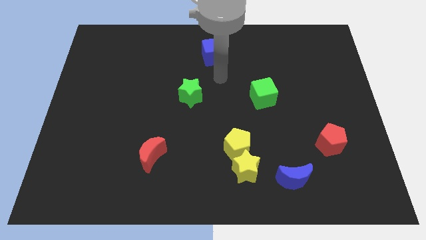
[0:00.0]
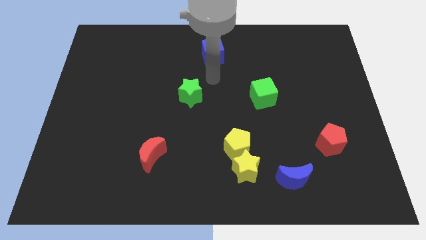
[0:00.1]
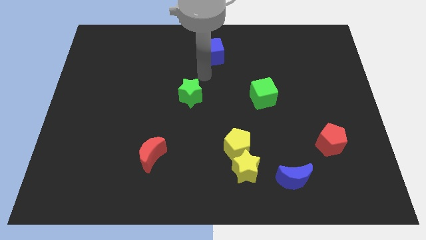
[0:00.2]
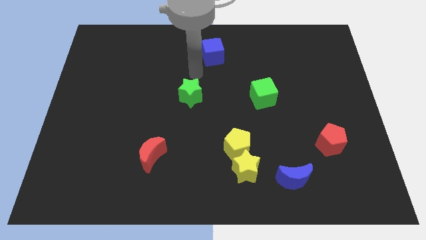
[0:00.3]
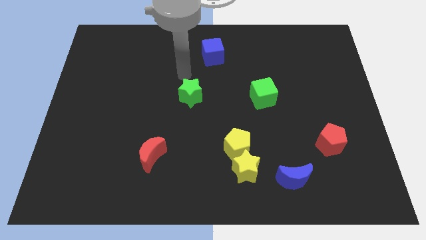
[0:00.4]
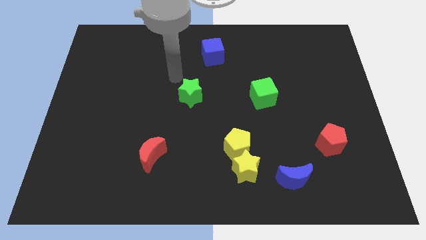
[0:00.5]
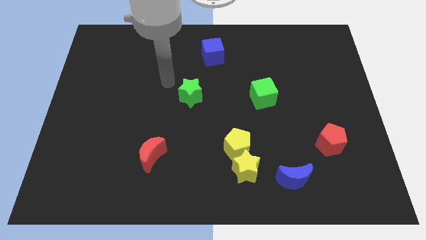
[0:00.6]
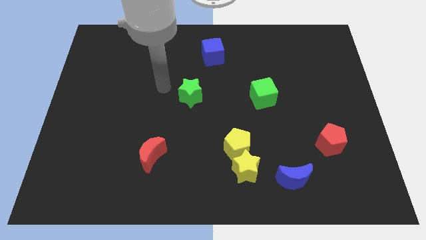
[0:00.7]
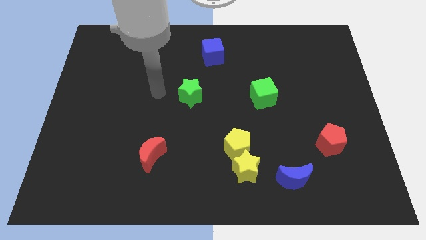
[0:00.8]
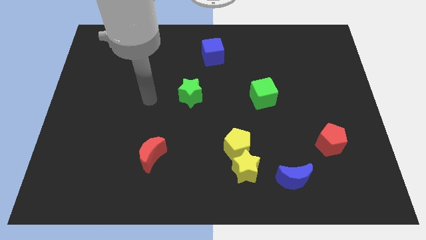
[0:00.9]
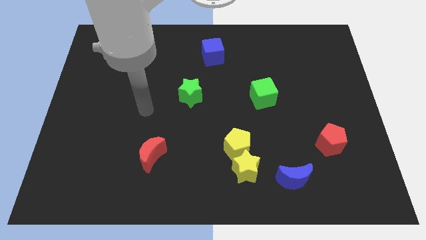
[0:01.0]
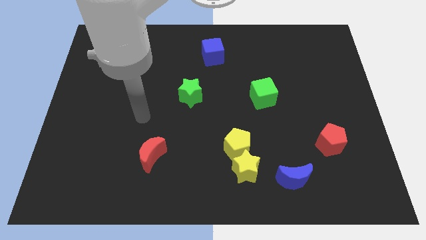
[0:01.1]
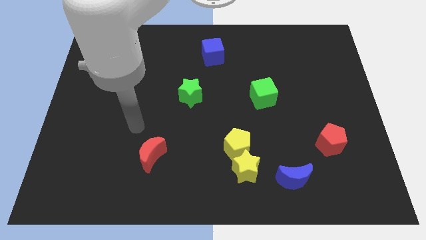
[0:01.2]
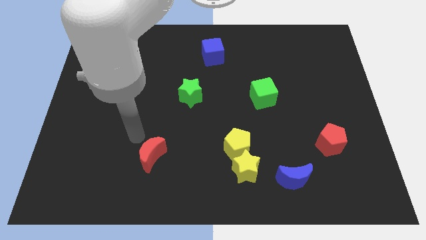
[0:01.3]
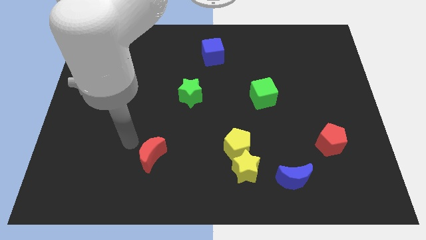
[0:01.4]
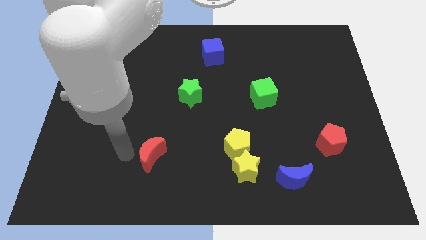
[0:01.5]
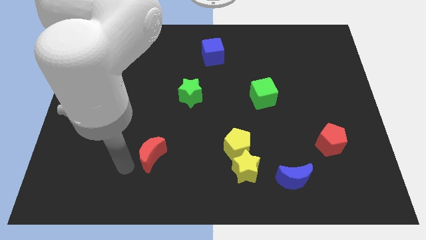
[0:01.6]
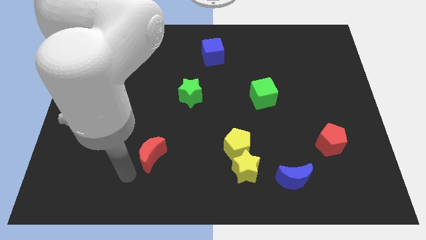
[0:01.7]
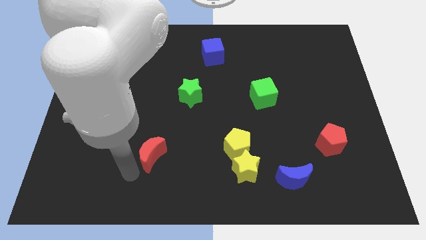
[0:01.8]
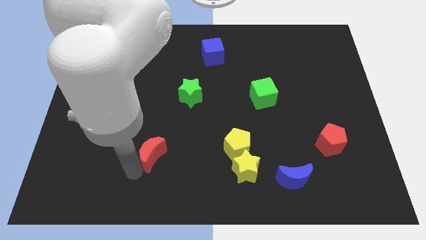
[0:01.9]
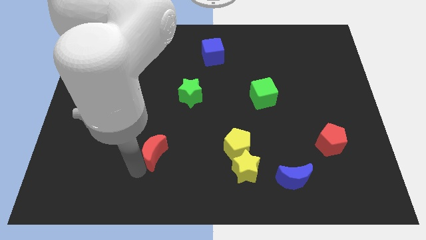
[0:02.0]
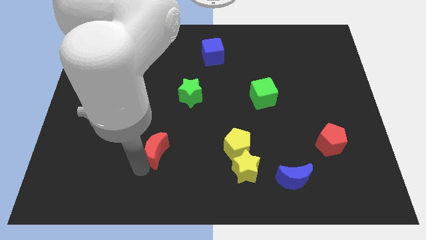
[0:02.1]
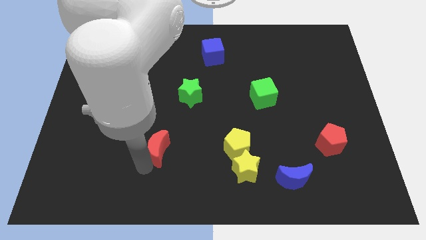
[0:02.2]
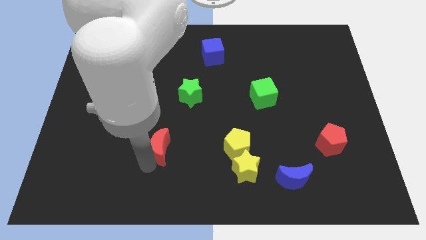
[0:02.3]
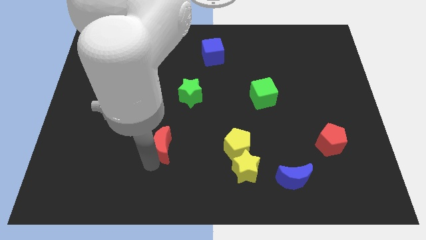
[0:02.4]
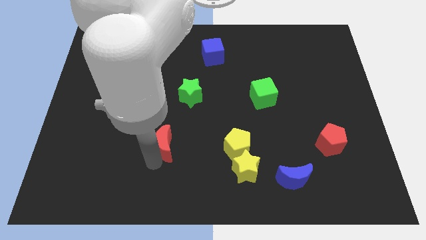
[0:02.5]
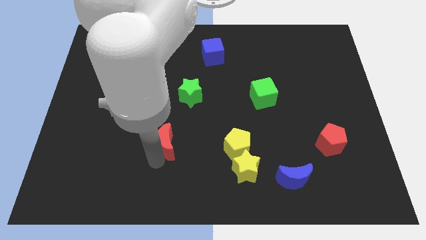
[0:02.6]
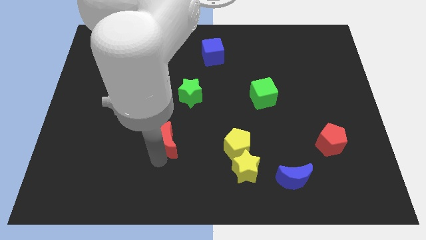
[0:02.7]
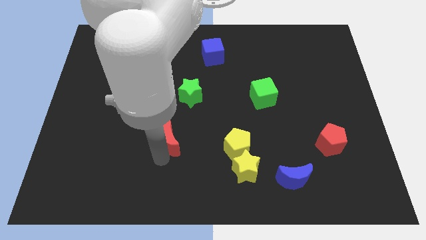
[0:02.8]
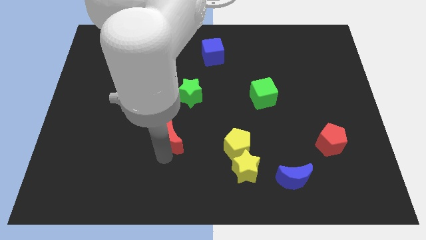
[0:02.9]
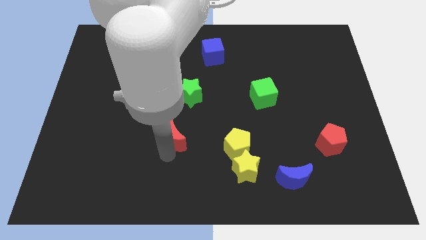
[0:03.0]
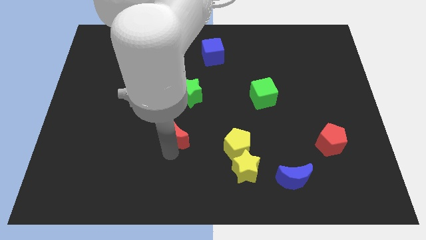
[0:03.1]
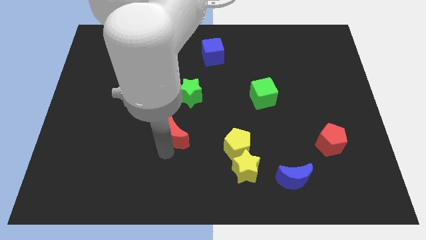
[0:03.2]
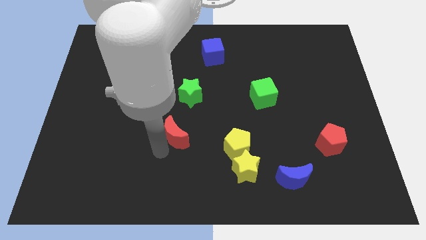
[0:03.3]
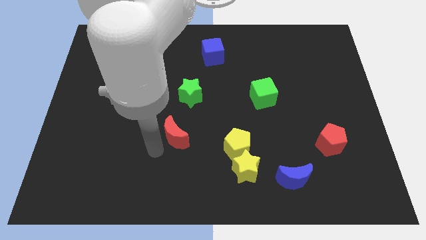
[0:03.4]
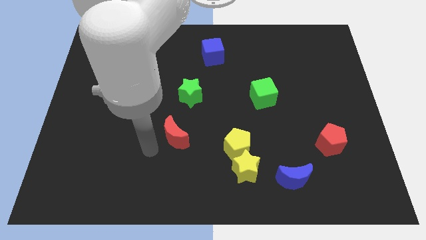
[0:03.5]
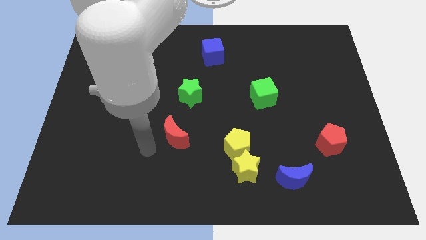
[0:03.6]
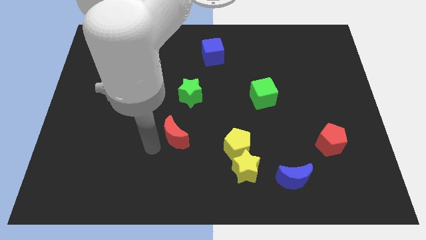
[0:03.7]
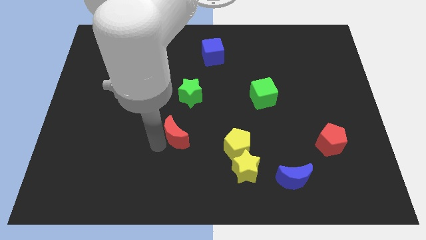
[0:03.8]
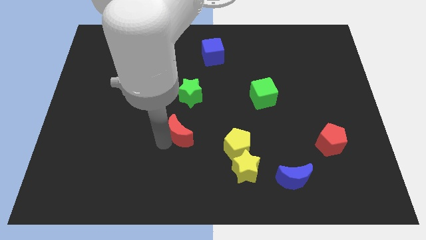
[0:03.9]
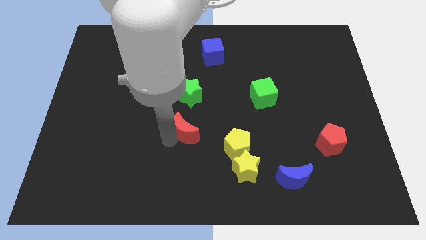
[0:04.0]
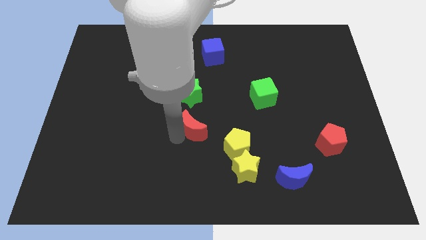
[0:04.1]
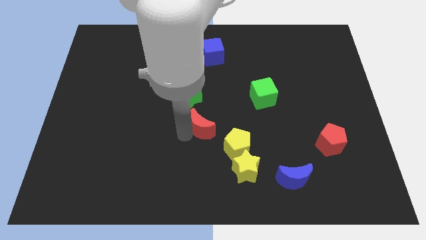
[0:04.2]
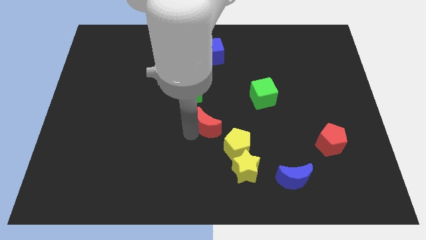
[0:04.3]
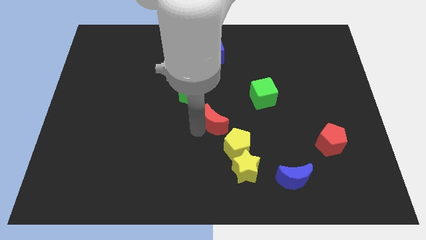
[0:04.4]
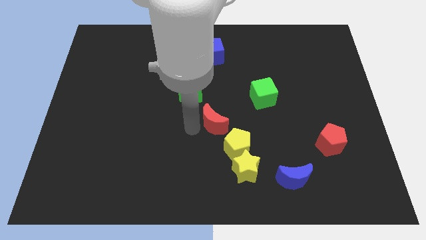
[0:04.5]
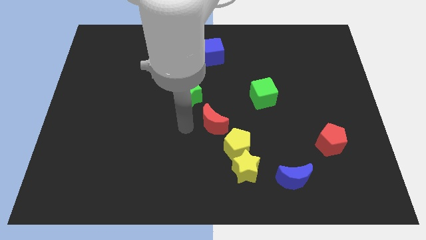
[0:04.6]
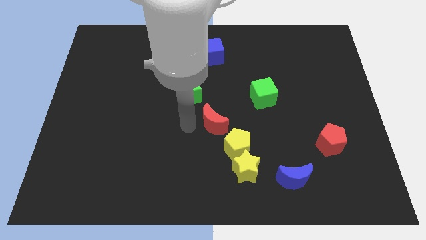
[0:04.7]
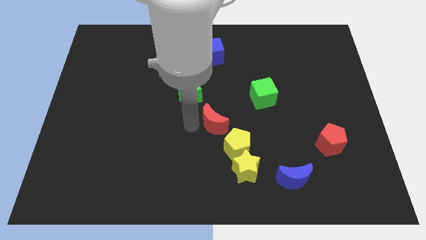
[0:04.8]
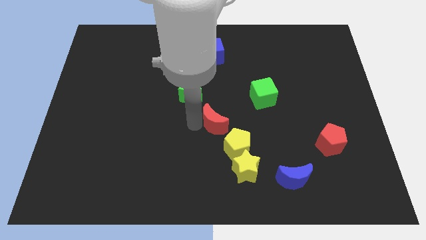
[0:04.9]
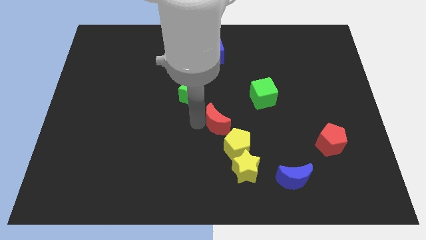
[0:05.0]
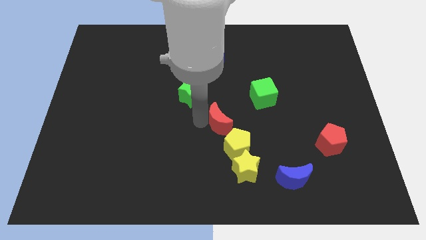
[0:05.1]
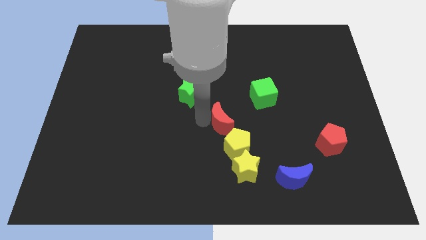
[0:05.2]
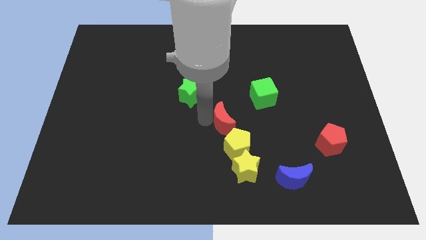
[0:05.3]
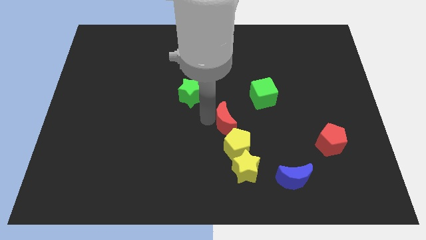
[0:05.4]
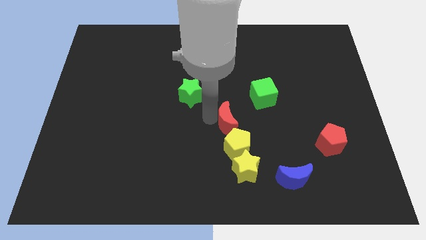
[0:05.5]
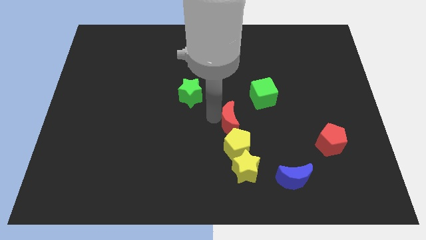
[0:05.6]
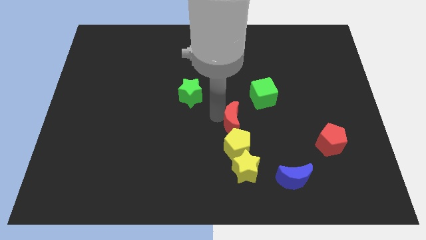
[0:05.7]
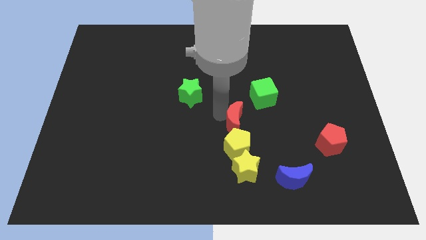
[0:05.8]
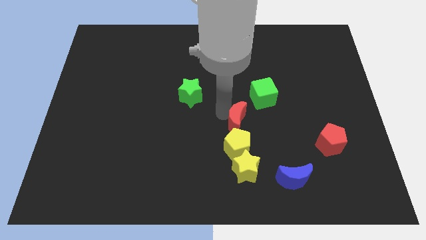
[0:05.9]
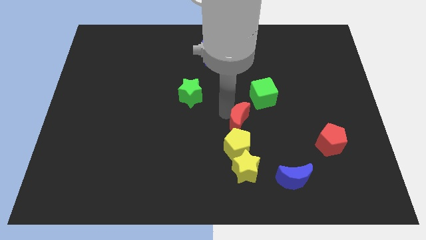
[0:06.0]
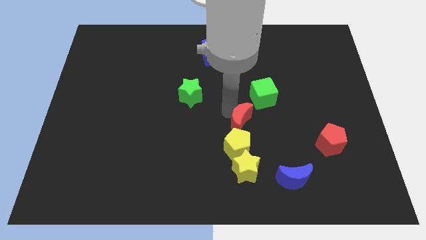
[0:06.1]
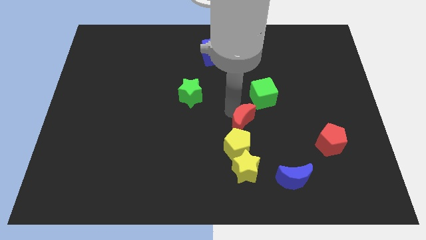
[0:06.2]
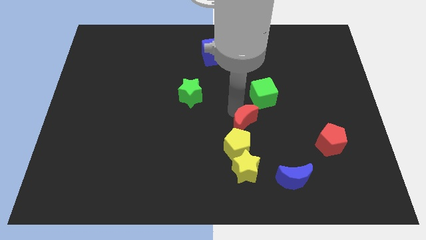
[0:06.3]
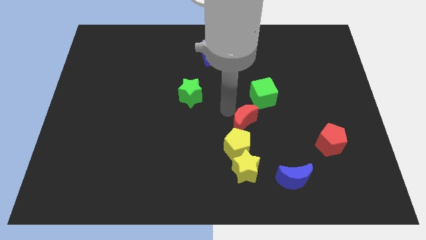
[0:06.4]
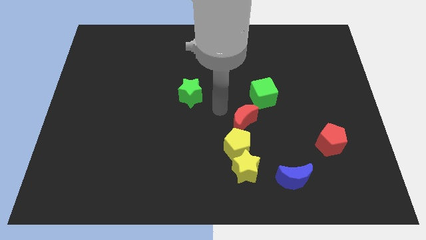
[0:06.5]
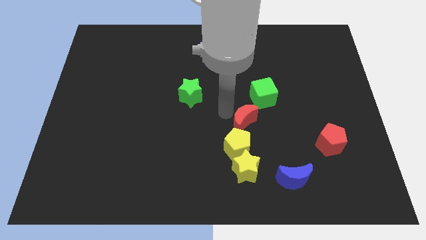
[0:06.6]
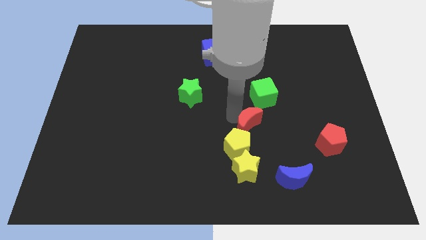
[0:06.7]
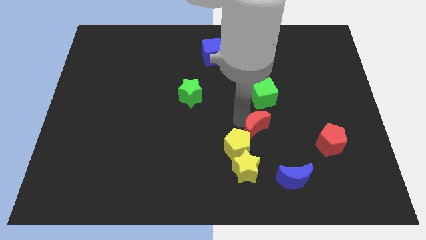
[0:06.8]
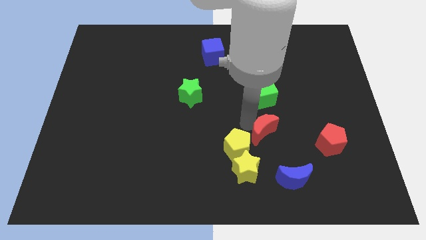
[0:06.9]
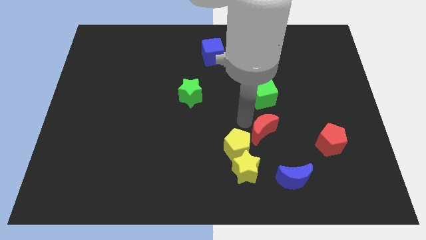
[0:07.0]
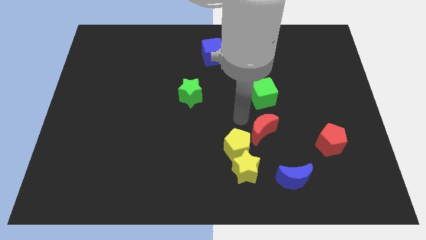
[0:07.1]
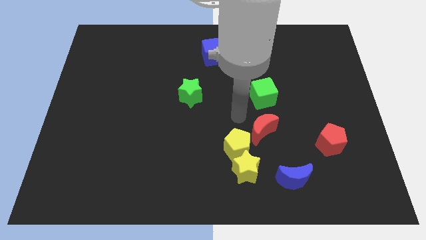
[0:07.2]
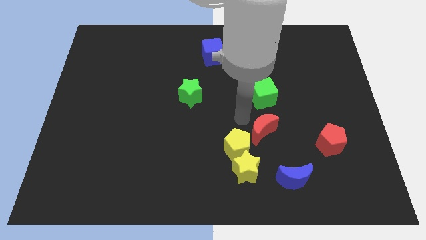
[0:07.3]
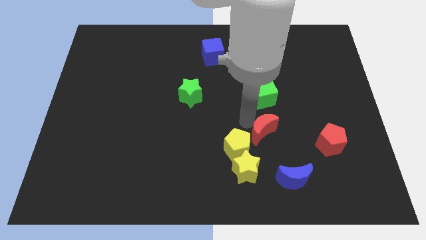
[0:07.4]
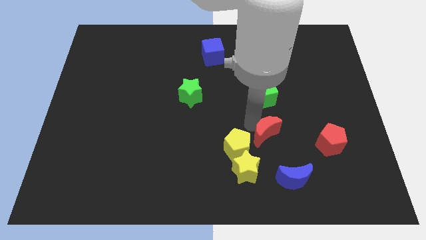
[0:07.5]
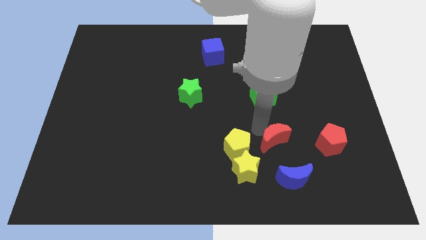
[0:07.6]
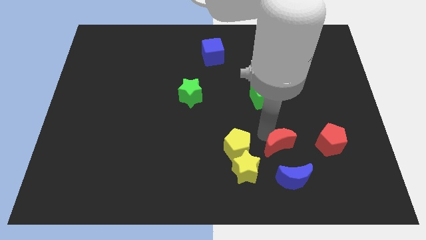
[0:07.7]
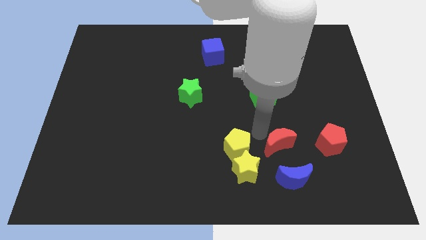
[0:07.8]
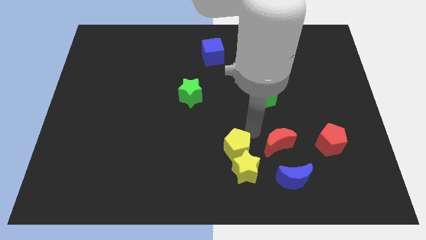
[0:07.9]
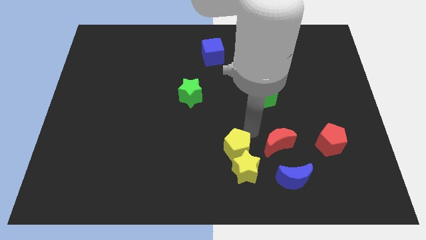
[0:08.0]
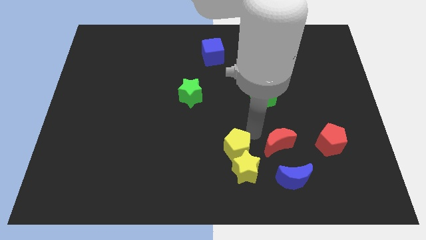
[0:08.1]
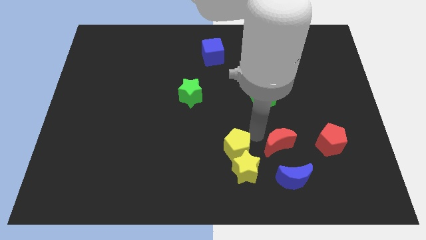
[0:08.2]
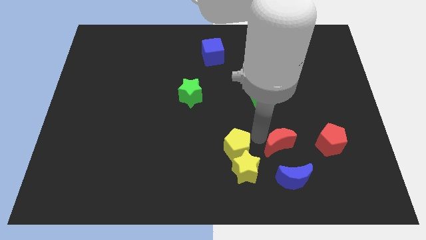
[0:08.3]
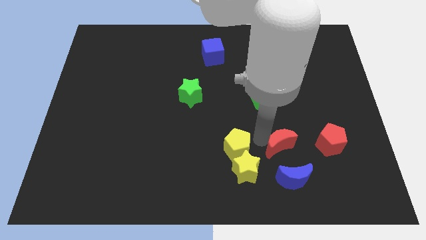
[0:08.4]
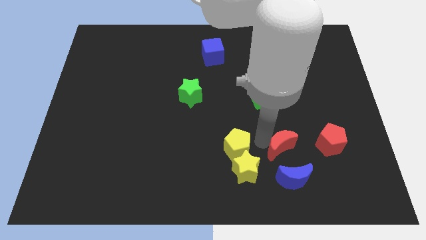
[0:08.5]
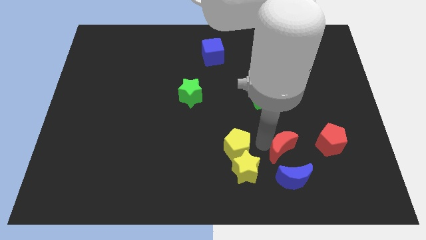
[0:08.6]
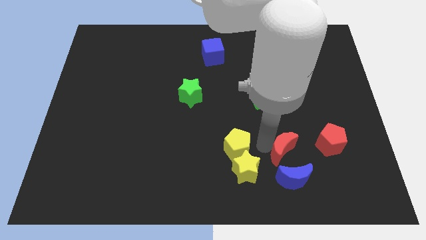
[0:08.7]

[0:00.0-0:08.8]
move the red moon to the right side of the yellow star
